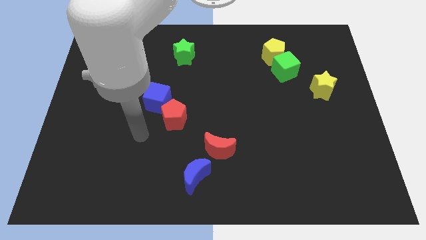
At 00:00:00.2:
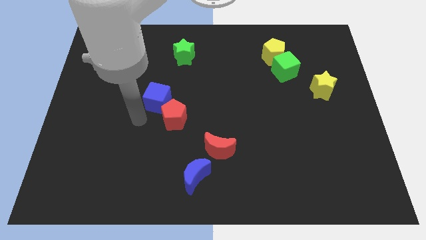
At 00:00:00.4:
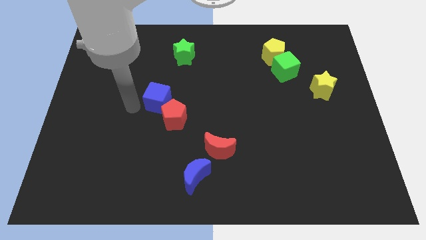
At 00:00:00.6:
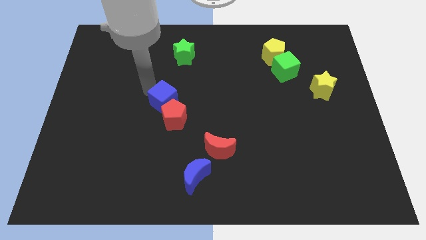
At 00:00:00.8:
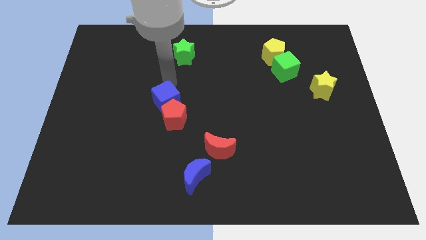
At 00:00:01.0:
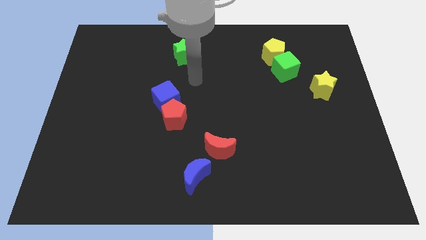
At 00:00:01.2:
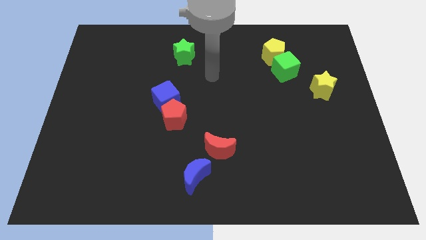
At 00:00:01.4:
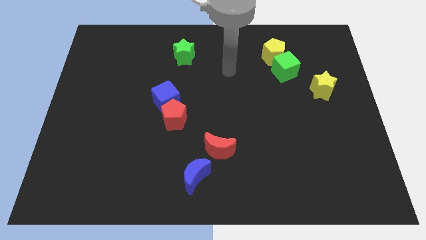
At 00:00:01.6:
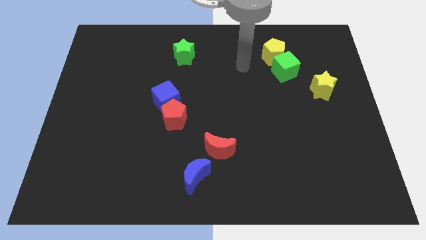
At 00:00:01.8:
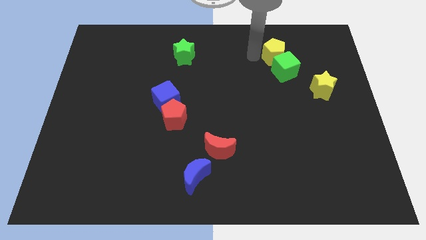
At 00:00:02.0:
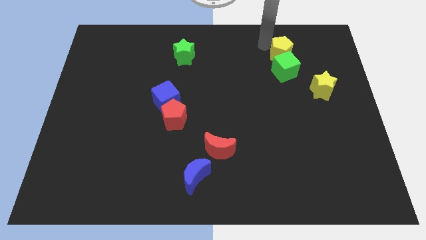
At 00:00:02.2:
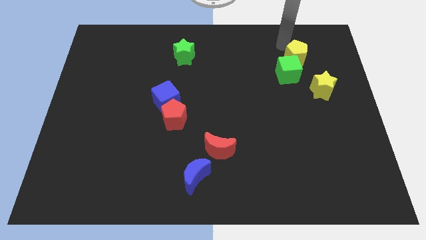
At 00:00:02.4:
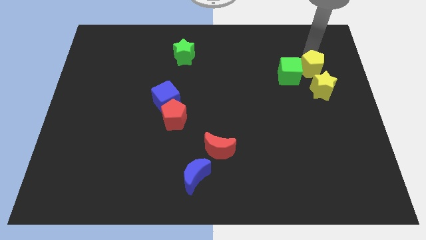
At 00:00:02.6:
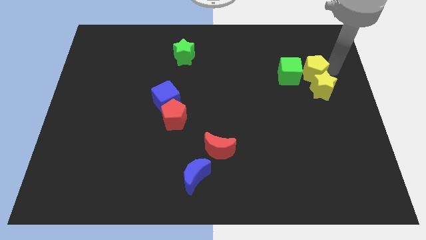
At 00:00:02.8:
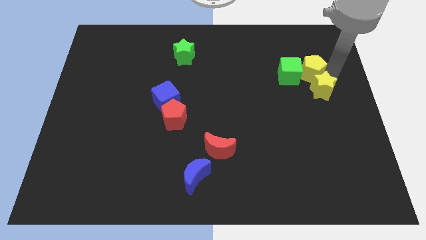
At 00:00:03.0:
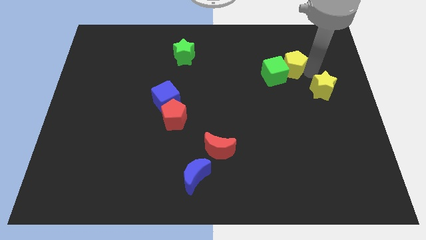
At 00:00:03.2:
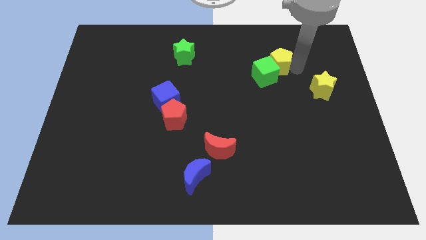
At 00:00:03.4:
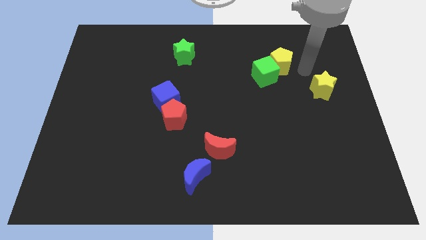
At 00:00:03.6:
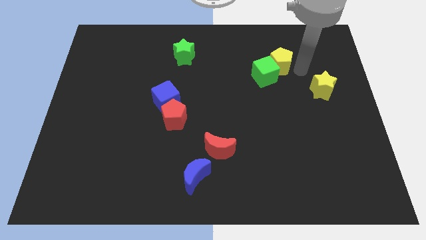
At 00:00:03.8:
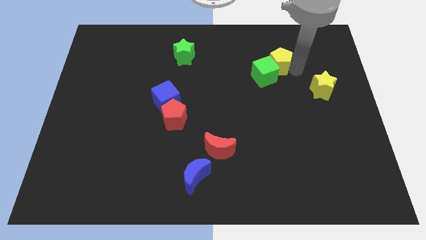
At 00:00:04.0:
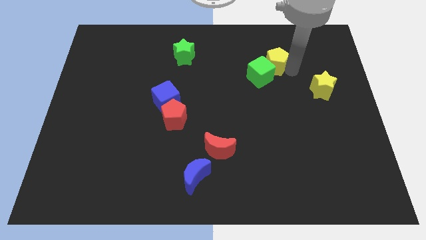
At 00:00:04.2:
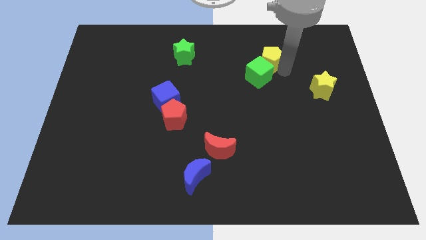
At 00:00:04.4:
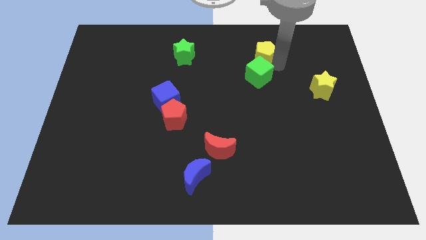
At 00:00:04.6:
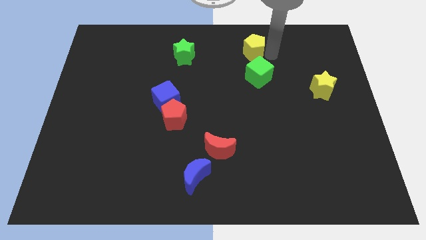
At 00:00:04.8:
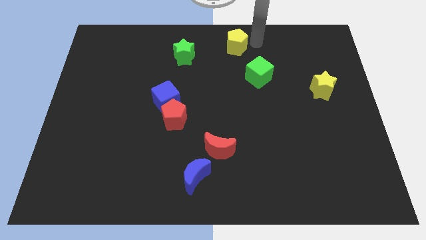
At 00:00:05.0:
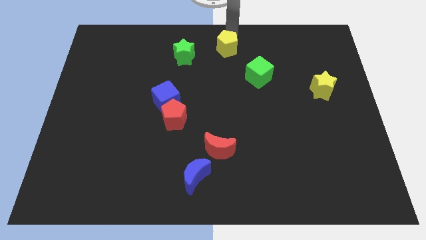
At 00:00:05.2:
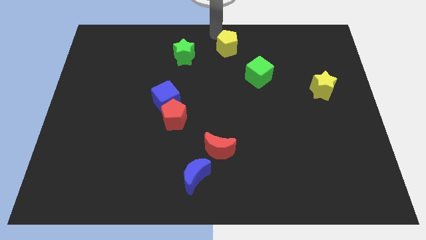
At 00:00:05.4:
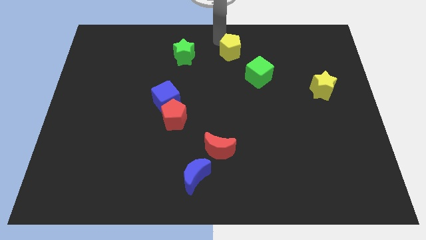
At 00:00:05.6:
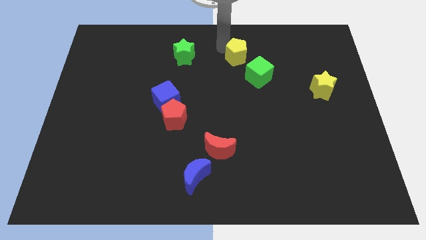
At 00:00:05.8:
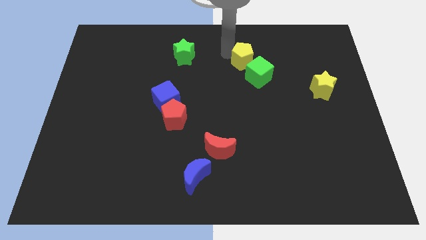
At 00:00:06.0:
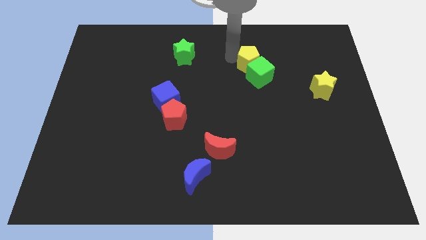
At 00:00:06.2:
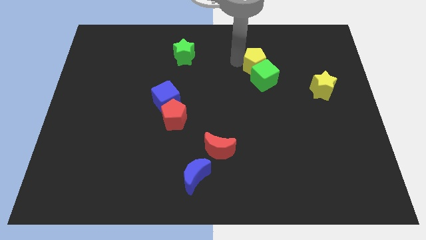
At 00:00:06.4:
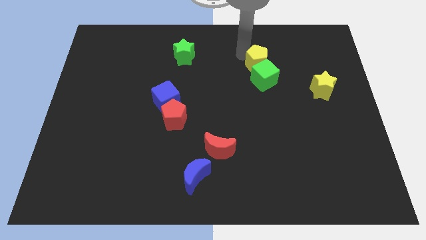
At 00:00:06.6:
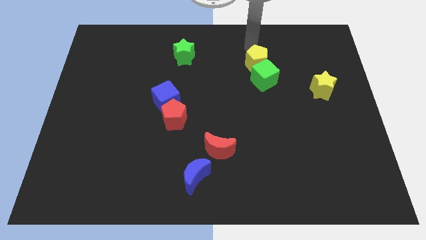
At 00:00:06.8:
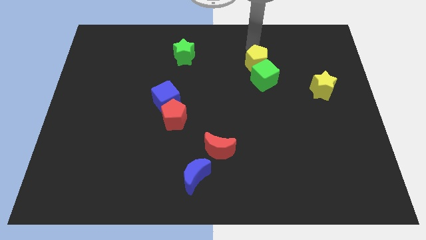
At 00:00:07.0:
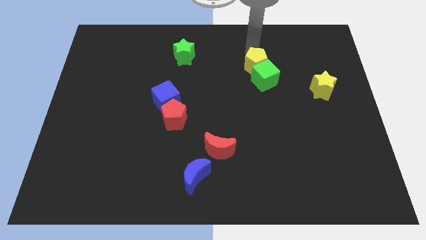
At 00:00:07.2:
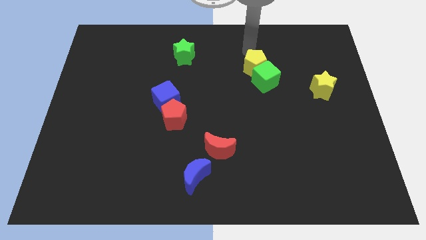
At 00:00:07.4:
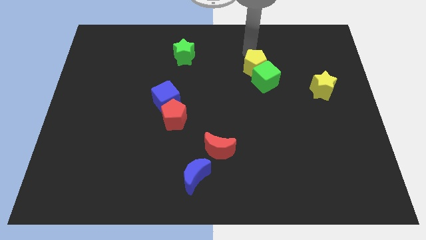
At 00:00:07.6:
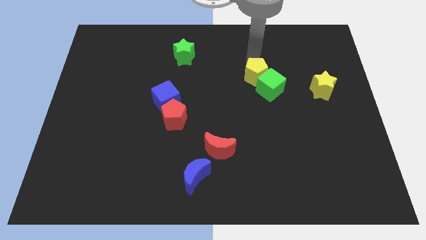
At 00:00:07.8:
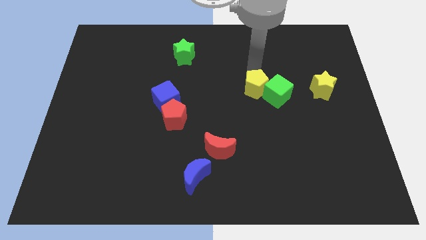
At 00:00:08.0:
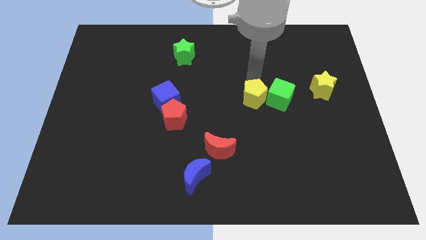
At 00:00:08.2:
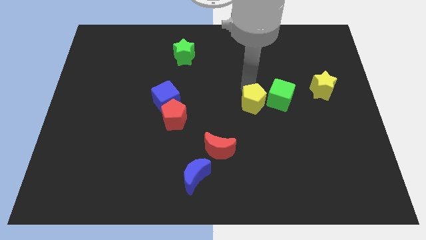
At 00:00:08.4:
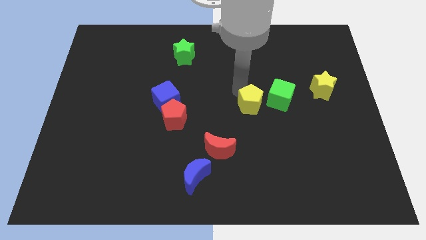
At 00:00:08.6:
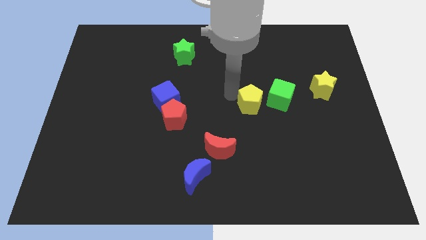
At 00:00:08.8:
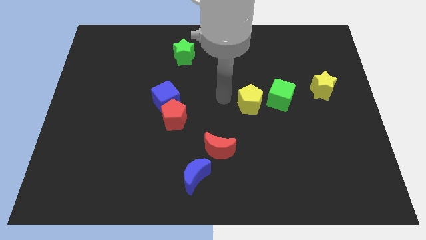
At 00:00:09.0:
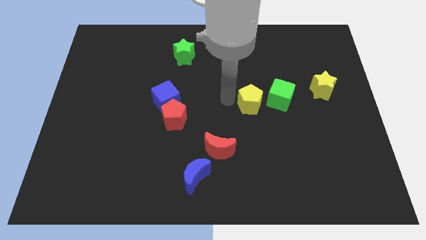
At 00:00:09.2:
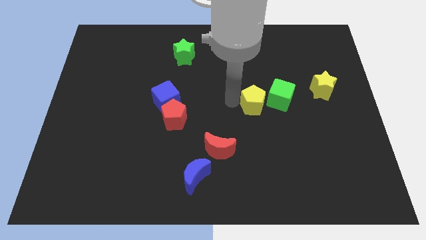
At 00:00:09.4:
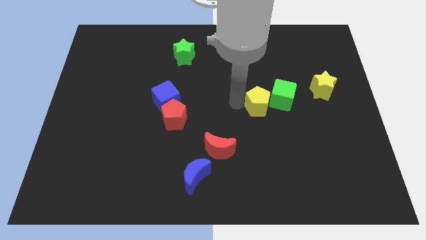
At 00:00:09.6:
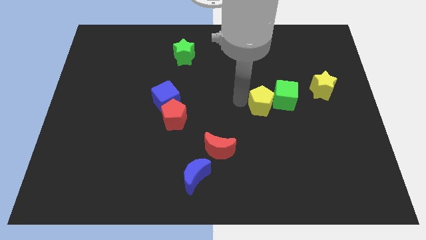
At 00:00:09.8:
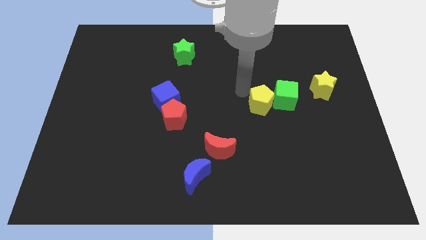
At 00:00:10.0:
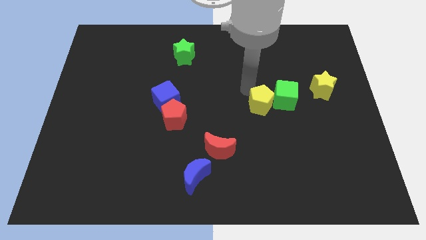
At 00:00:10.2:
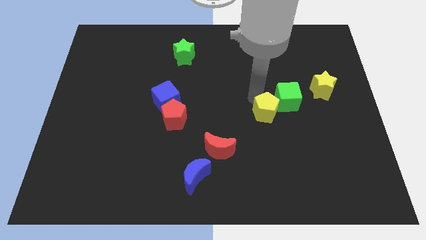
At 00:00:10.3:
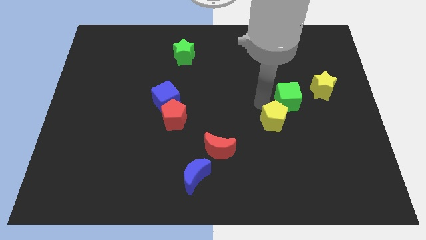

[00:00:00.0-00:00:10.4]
slide the yellow pentagon down

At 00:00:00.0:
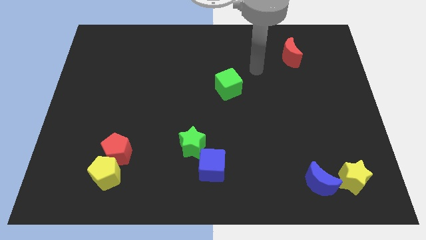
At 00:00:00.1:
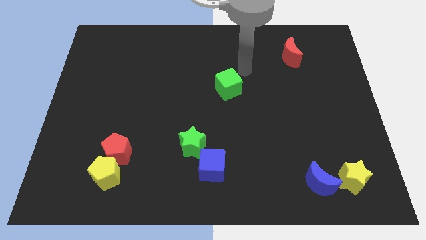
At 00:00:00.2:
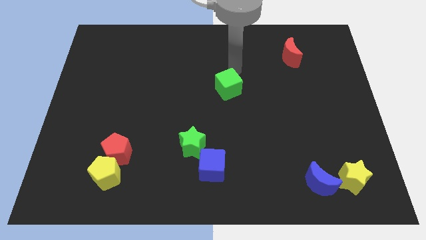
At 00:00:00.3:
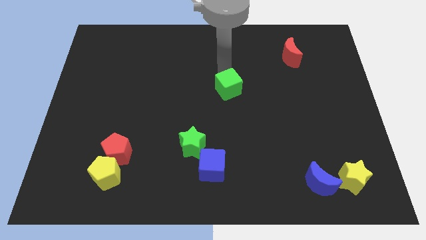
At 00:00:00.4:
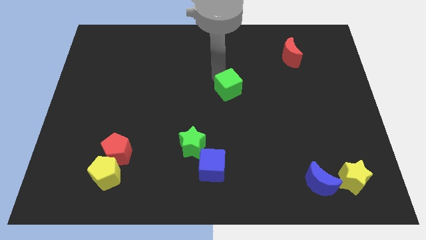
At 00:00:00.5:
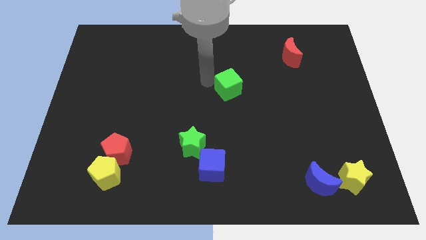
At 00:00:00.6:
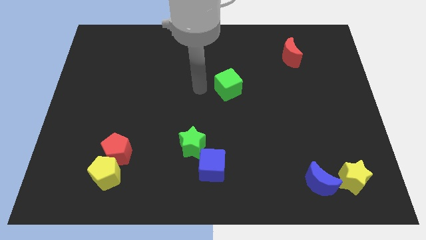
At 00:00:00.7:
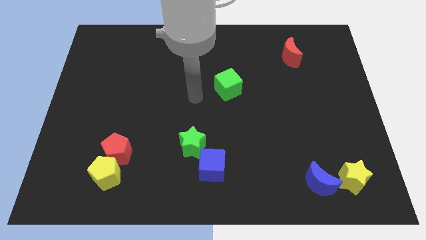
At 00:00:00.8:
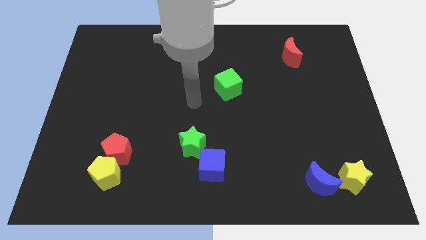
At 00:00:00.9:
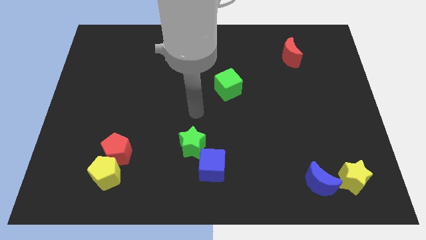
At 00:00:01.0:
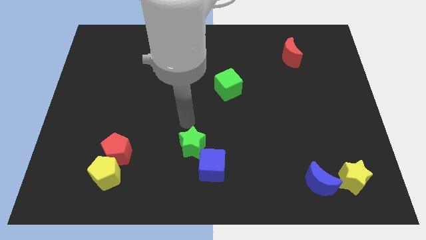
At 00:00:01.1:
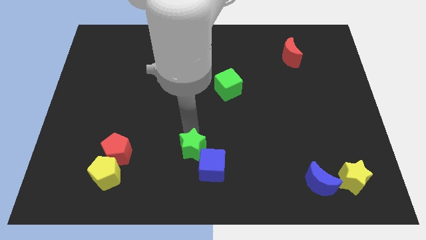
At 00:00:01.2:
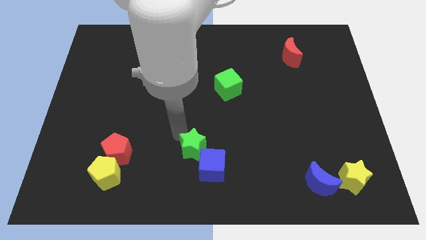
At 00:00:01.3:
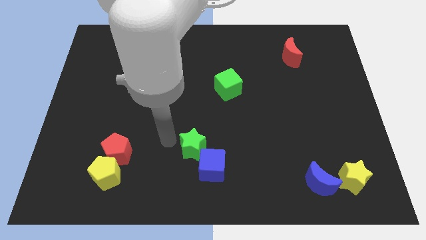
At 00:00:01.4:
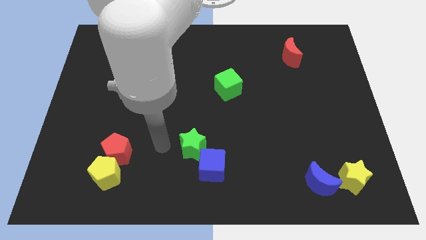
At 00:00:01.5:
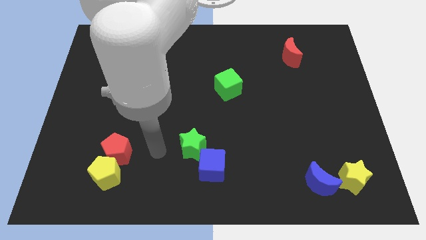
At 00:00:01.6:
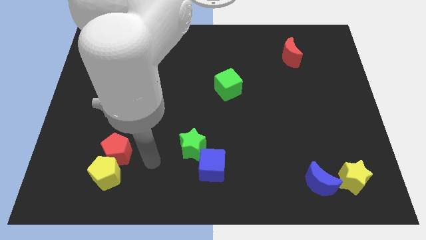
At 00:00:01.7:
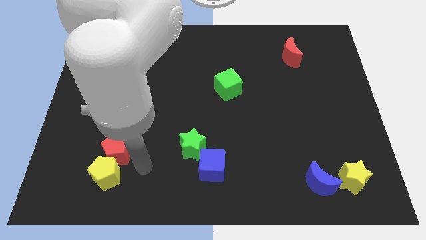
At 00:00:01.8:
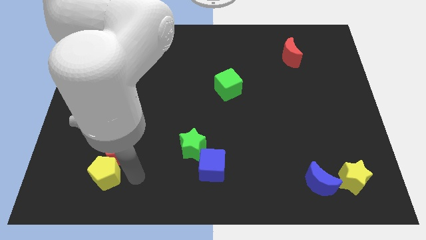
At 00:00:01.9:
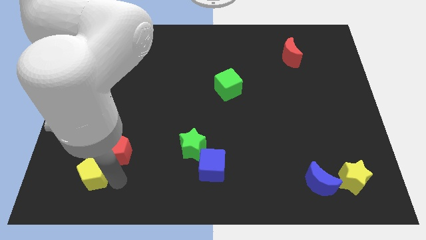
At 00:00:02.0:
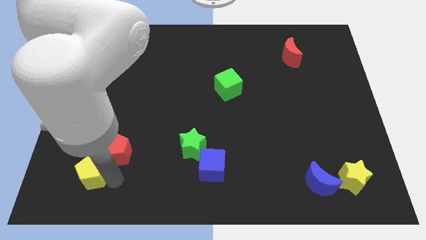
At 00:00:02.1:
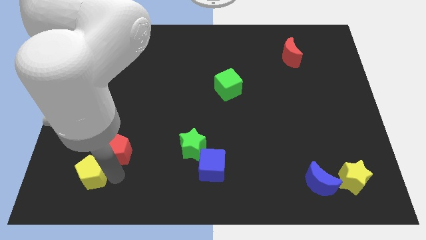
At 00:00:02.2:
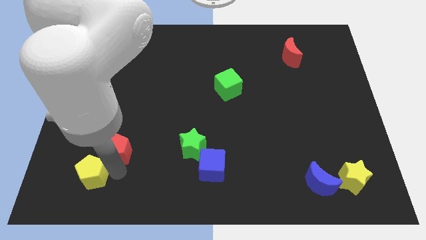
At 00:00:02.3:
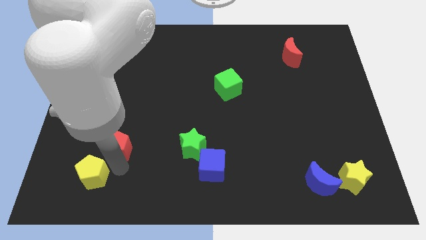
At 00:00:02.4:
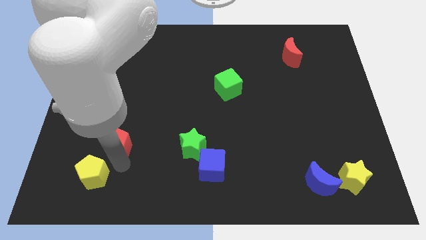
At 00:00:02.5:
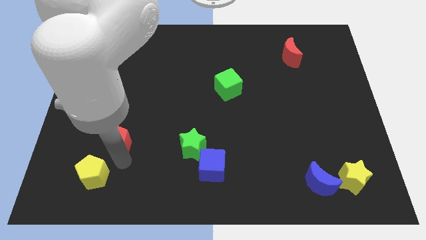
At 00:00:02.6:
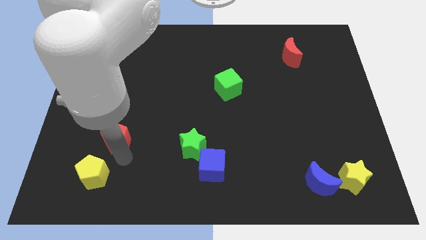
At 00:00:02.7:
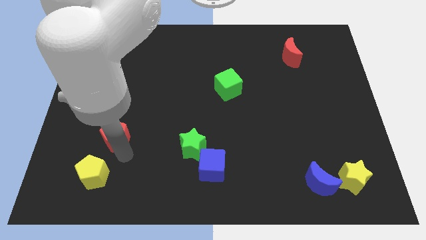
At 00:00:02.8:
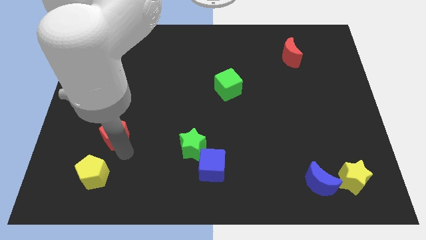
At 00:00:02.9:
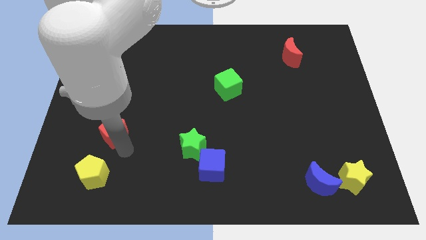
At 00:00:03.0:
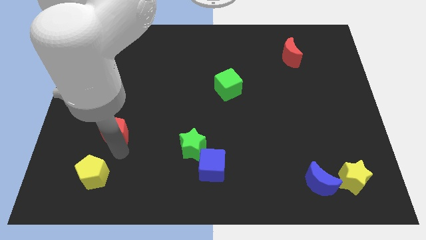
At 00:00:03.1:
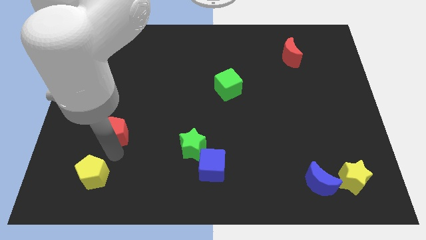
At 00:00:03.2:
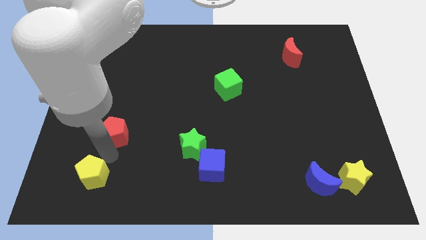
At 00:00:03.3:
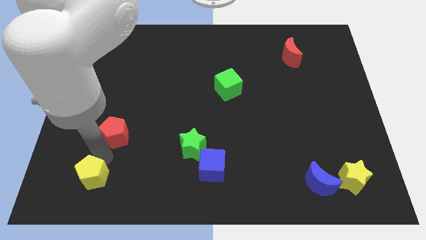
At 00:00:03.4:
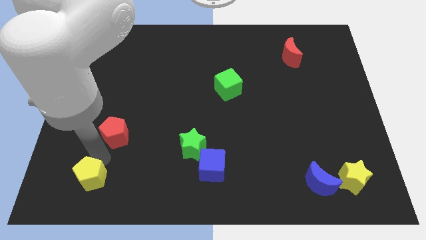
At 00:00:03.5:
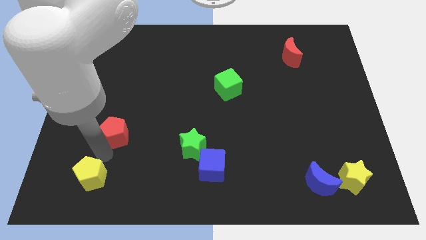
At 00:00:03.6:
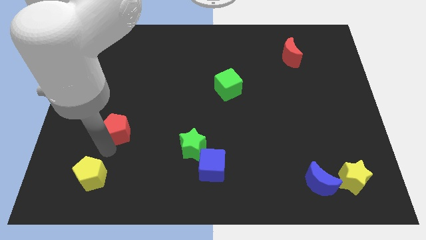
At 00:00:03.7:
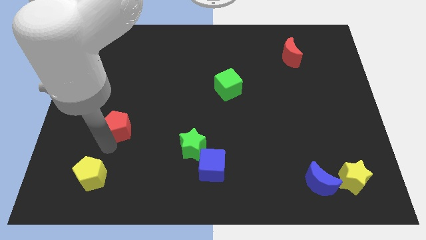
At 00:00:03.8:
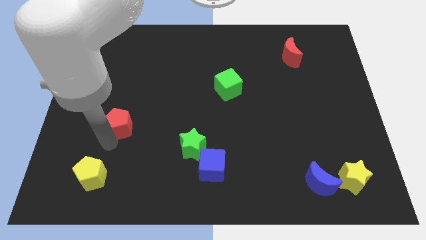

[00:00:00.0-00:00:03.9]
slide the red pentagon upwards a bit
